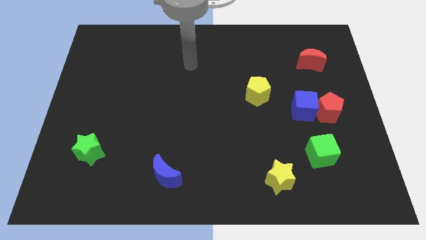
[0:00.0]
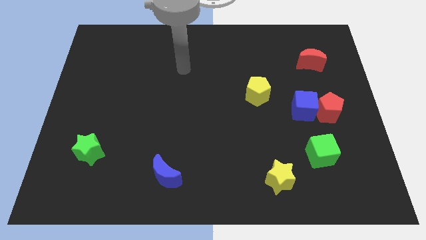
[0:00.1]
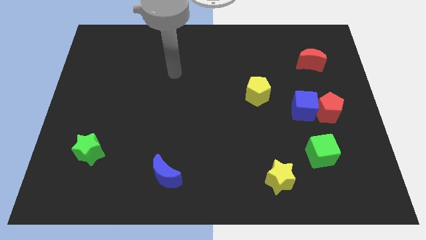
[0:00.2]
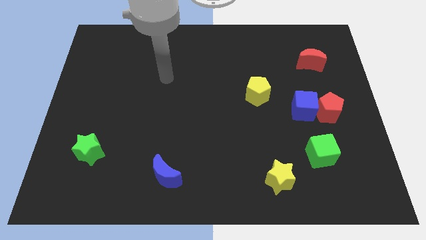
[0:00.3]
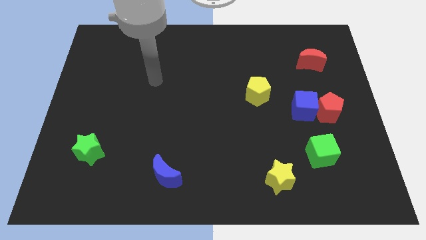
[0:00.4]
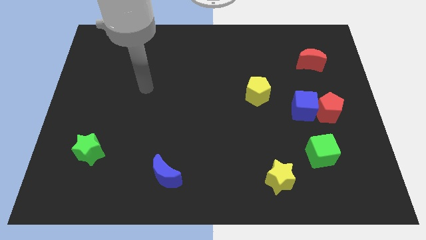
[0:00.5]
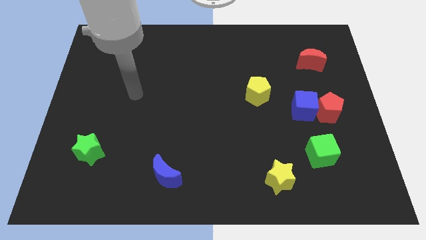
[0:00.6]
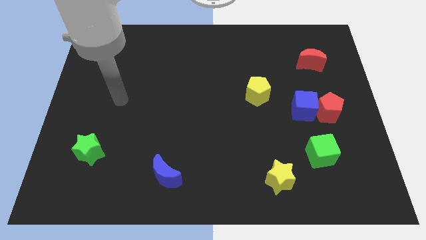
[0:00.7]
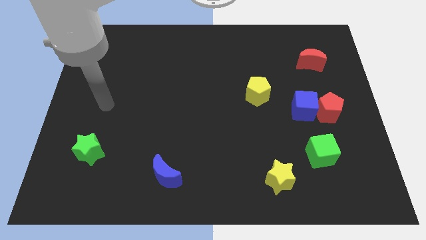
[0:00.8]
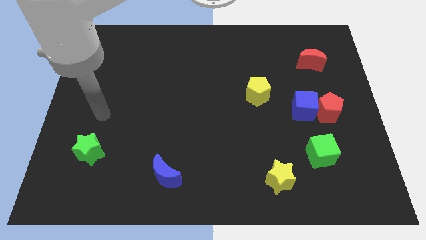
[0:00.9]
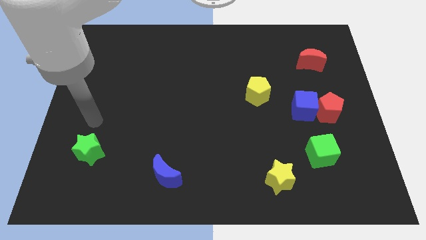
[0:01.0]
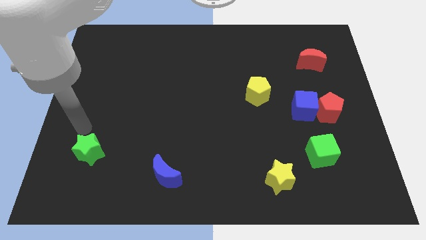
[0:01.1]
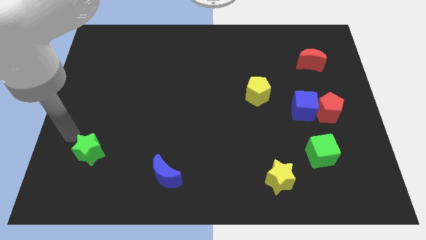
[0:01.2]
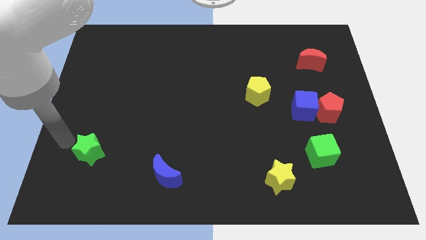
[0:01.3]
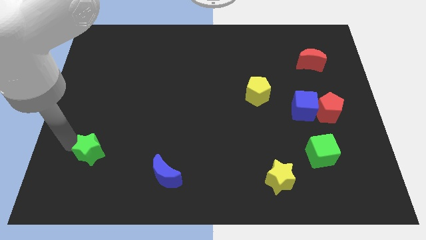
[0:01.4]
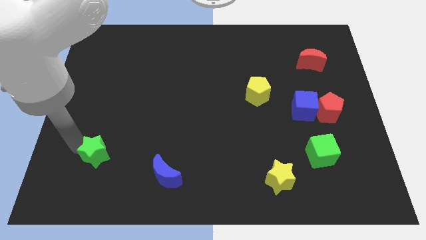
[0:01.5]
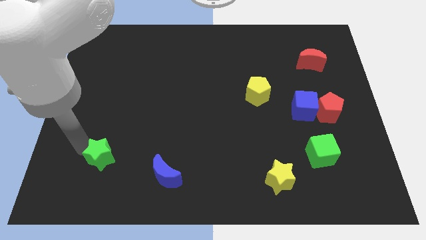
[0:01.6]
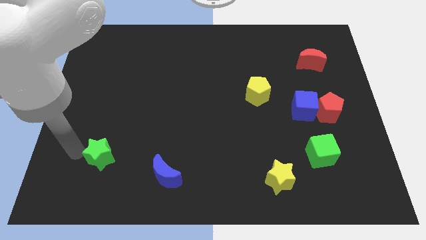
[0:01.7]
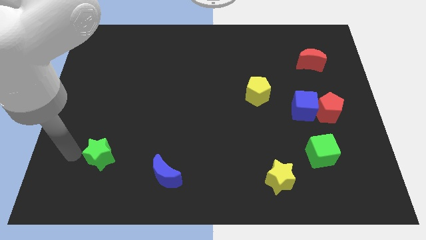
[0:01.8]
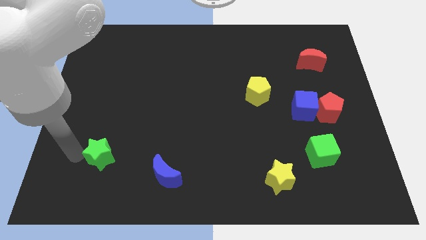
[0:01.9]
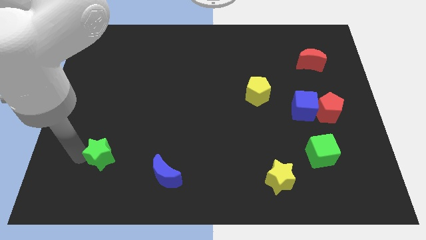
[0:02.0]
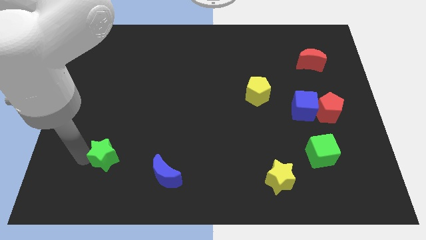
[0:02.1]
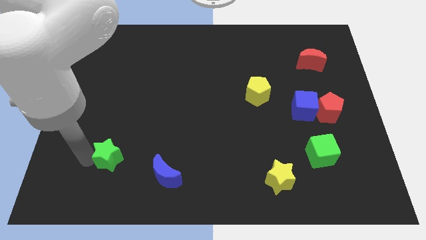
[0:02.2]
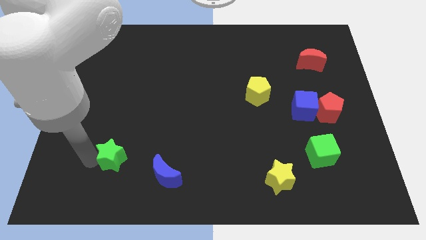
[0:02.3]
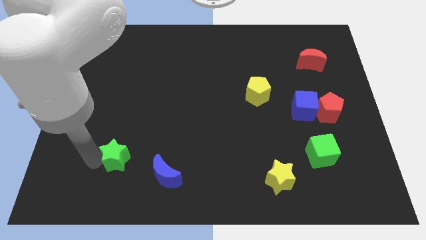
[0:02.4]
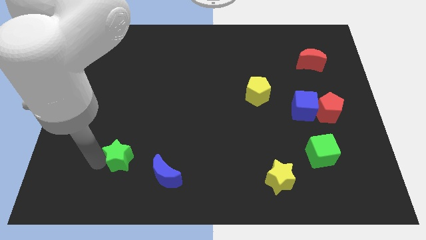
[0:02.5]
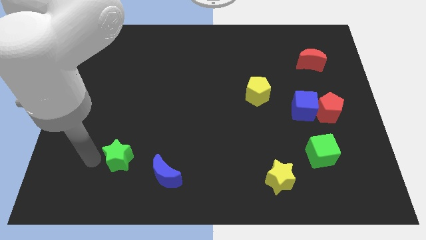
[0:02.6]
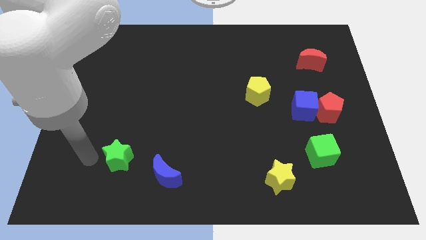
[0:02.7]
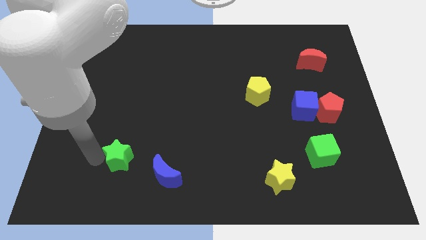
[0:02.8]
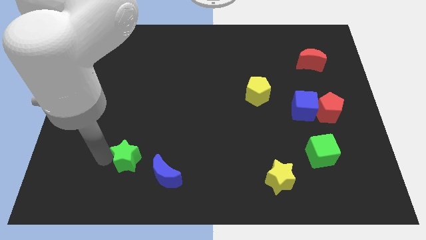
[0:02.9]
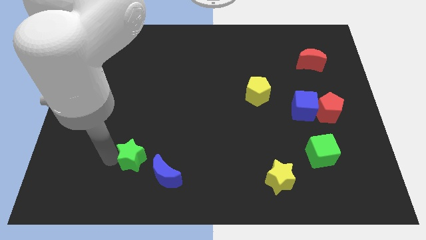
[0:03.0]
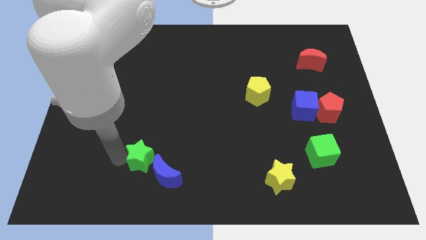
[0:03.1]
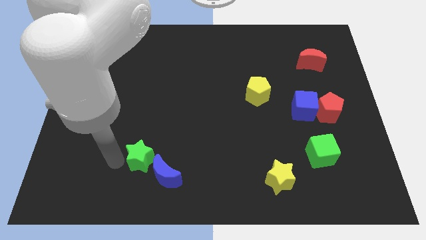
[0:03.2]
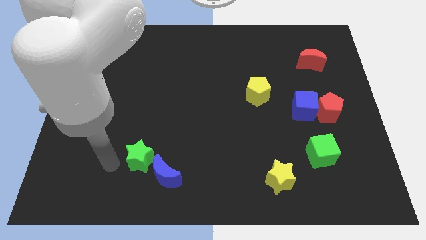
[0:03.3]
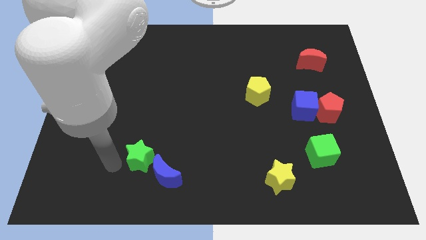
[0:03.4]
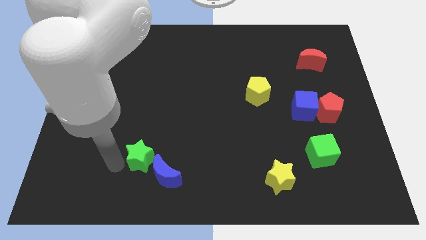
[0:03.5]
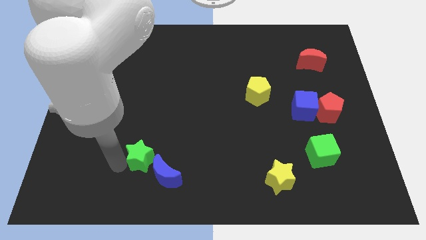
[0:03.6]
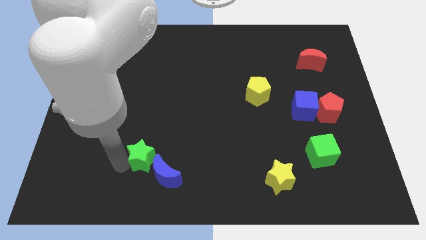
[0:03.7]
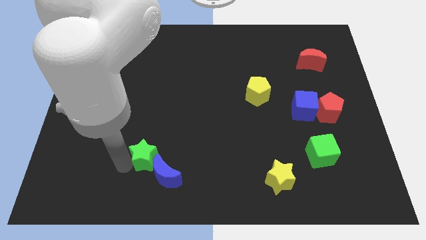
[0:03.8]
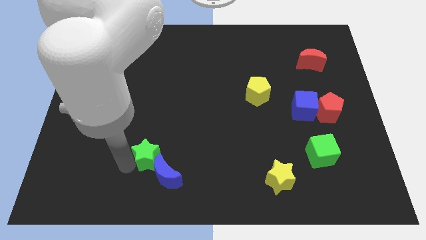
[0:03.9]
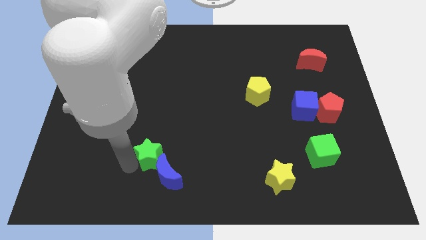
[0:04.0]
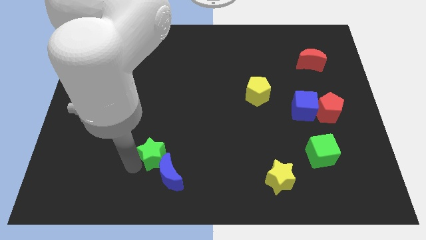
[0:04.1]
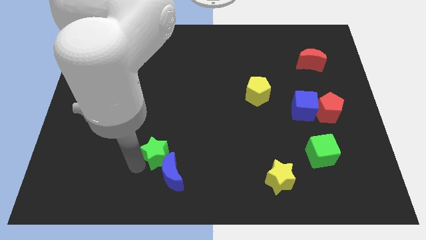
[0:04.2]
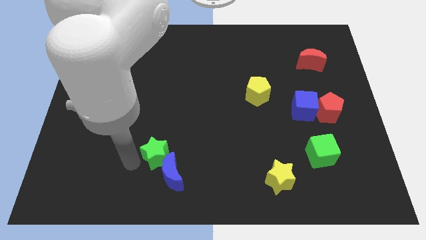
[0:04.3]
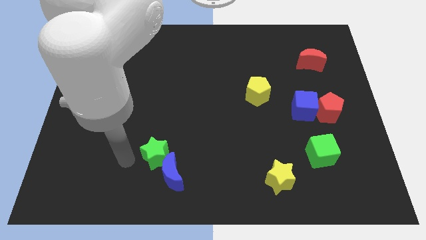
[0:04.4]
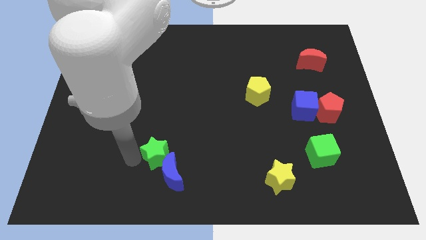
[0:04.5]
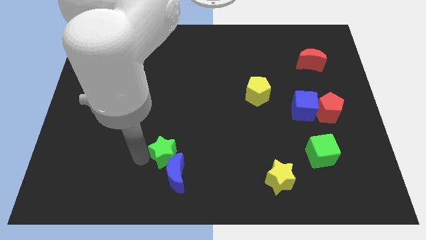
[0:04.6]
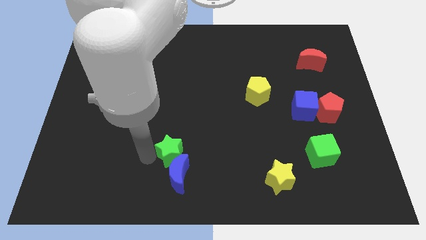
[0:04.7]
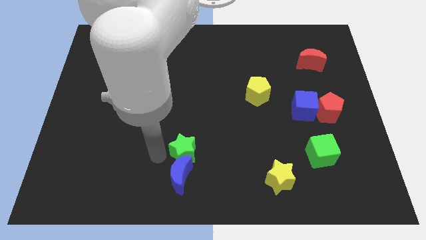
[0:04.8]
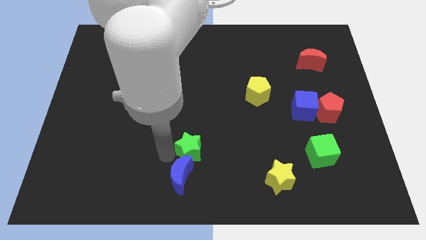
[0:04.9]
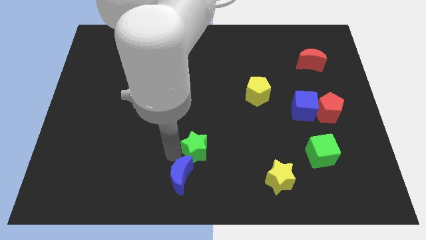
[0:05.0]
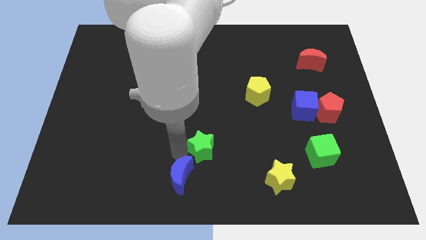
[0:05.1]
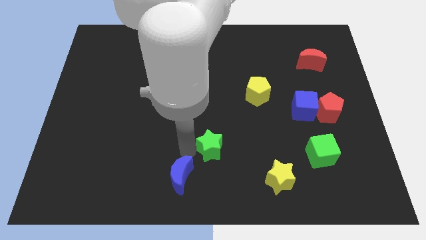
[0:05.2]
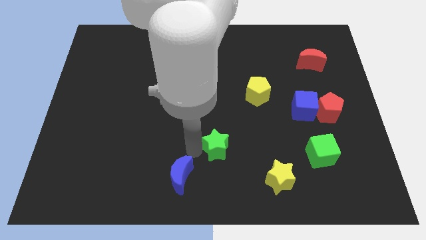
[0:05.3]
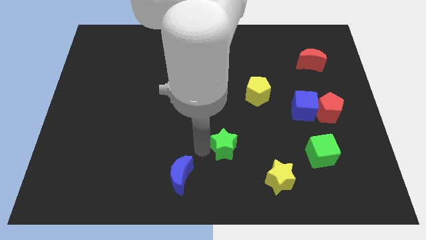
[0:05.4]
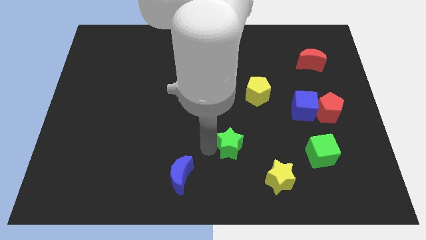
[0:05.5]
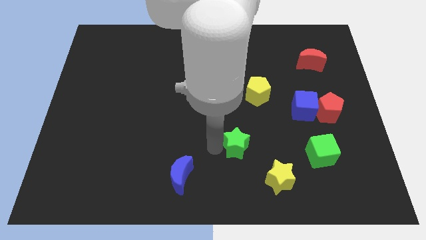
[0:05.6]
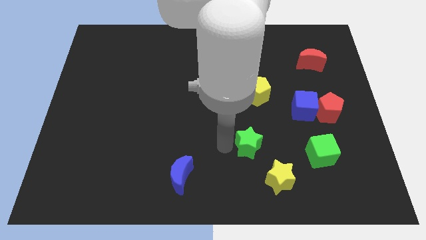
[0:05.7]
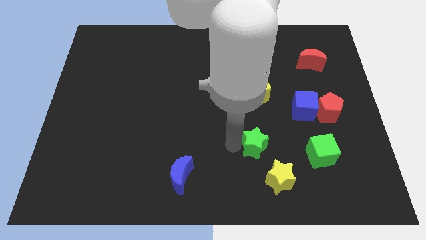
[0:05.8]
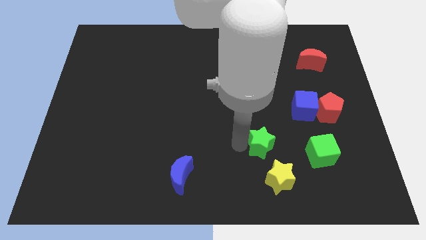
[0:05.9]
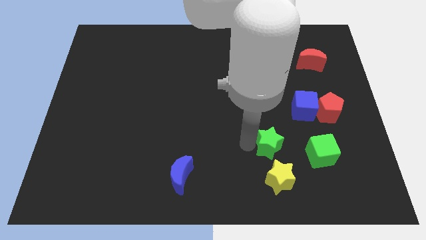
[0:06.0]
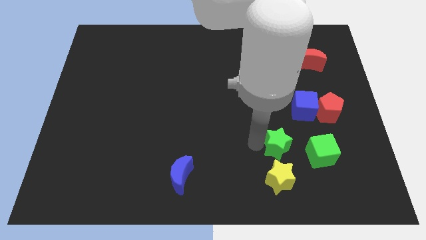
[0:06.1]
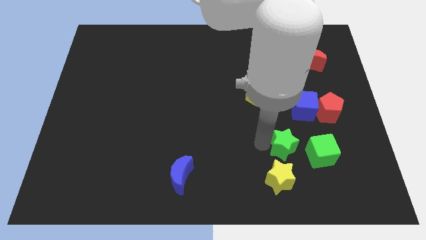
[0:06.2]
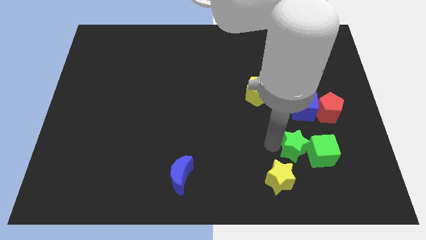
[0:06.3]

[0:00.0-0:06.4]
push the green star next to the green cube

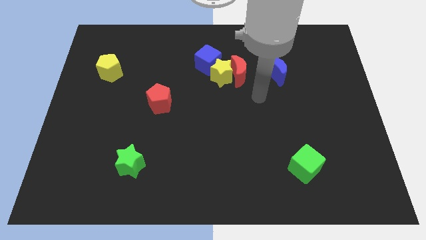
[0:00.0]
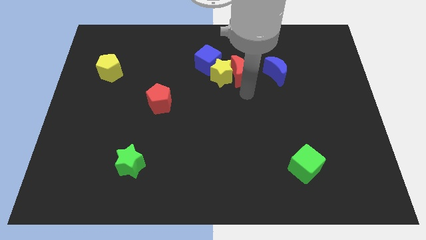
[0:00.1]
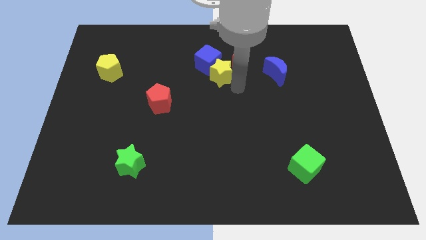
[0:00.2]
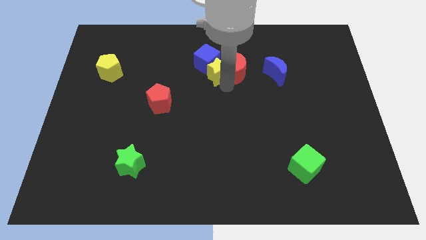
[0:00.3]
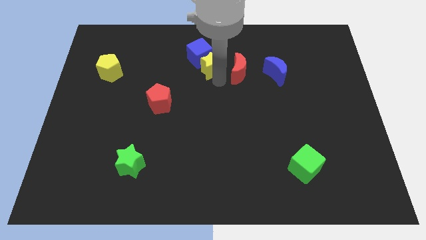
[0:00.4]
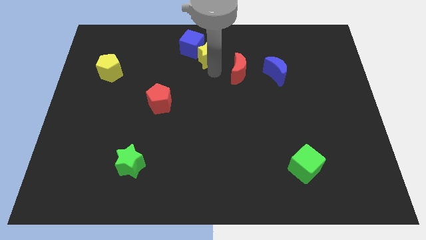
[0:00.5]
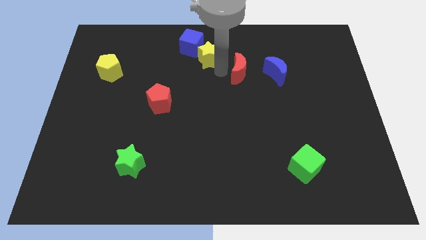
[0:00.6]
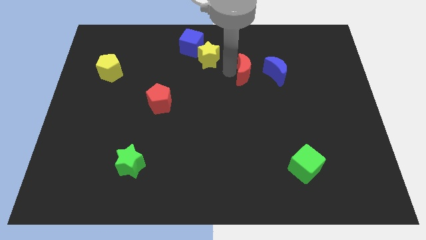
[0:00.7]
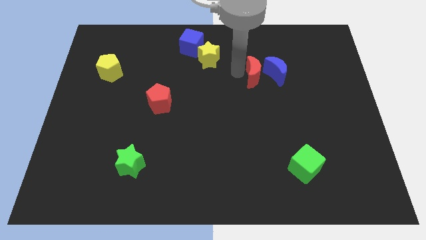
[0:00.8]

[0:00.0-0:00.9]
slide the red moon towards the blue moon
